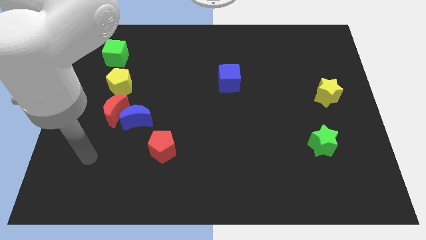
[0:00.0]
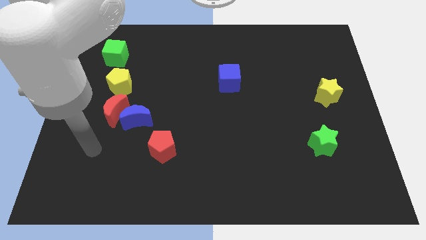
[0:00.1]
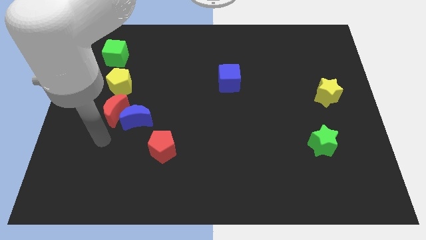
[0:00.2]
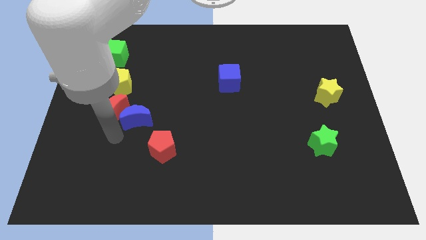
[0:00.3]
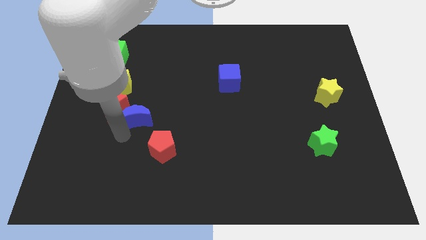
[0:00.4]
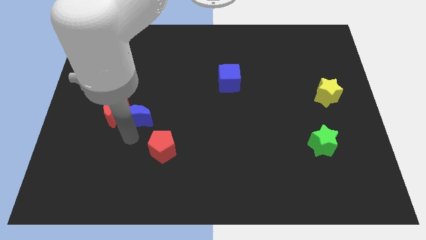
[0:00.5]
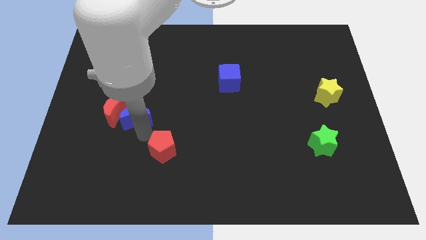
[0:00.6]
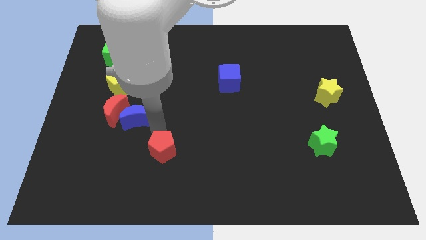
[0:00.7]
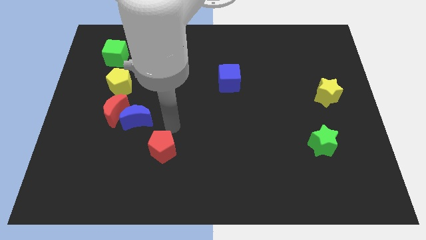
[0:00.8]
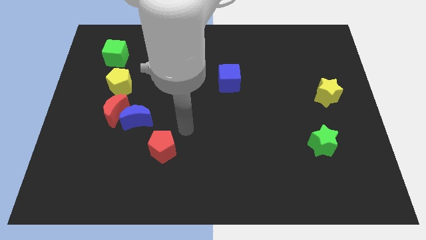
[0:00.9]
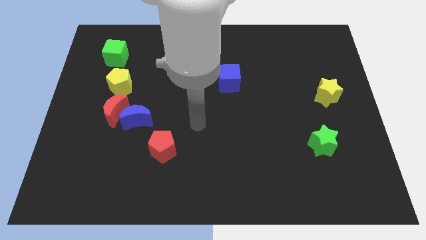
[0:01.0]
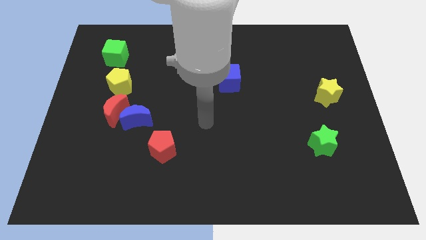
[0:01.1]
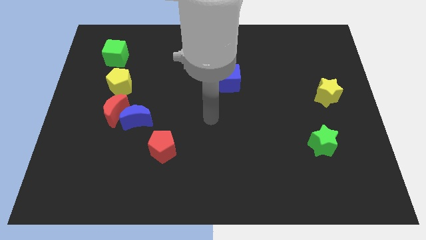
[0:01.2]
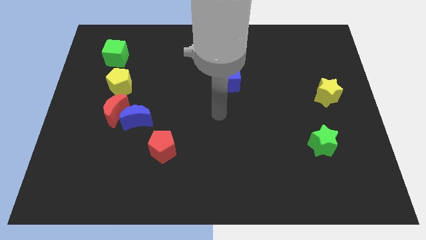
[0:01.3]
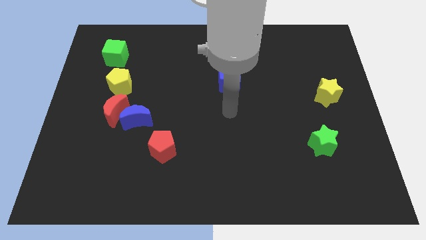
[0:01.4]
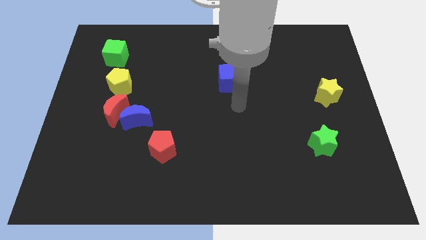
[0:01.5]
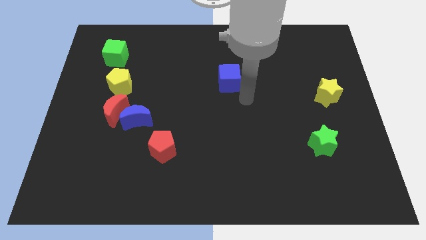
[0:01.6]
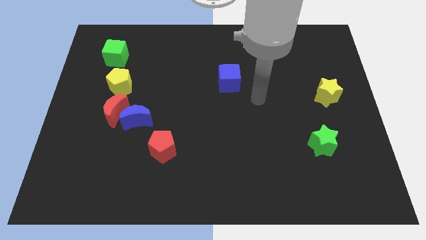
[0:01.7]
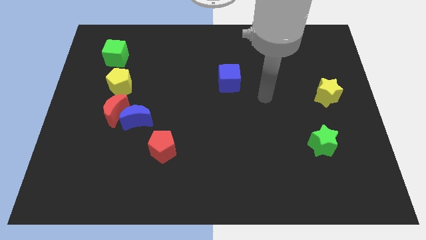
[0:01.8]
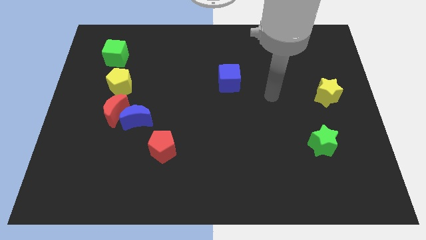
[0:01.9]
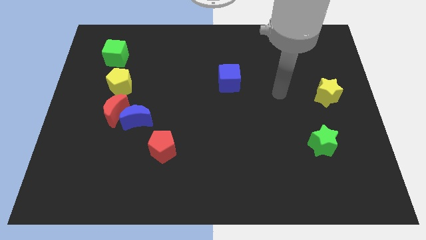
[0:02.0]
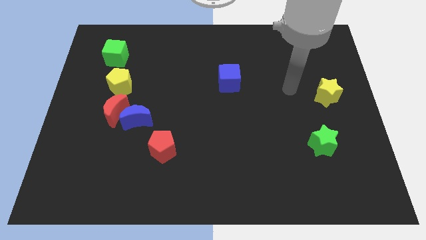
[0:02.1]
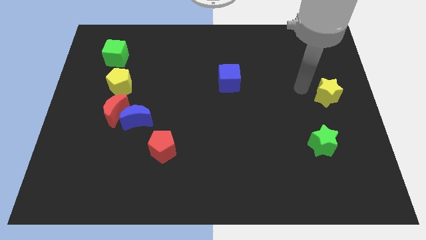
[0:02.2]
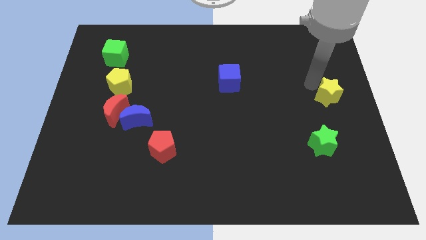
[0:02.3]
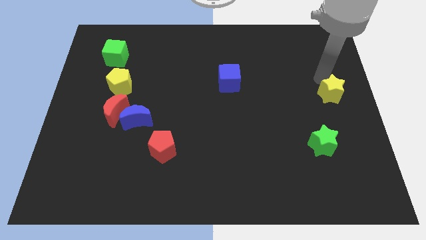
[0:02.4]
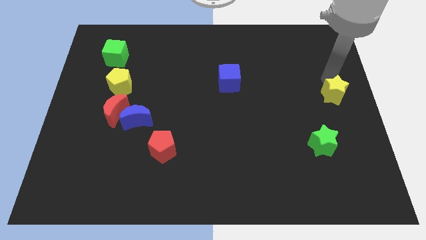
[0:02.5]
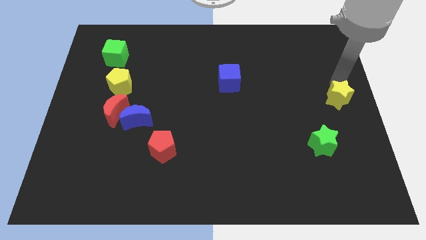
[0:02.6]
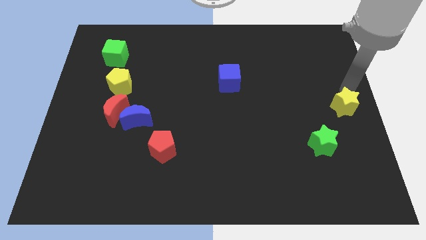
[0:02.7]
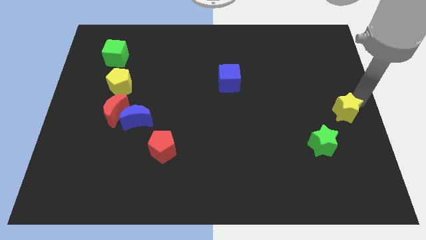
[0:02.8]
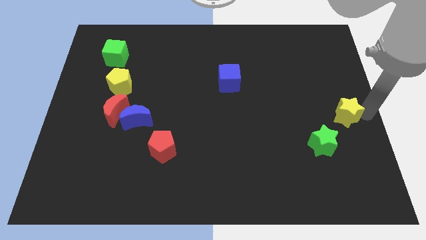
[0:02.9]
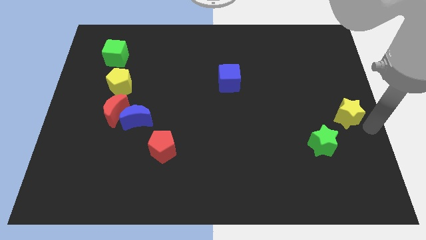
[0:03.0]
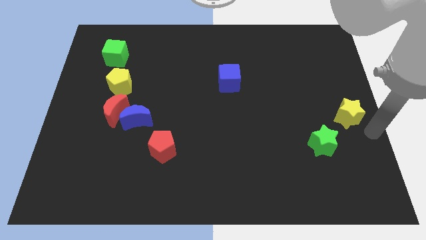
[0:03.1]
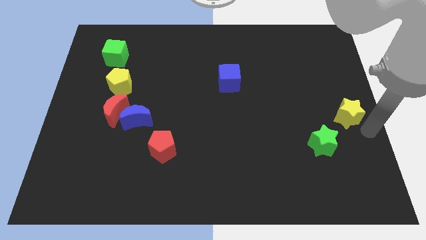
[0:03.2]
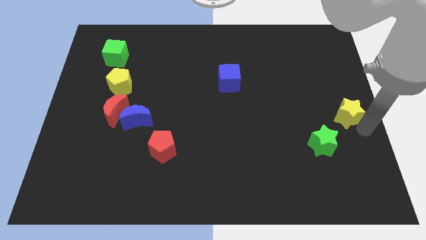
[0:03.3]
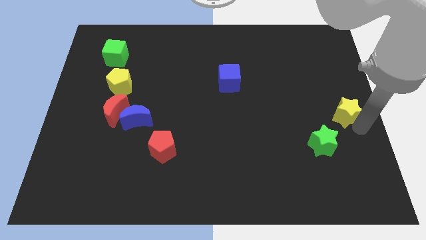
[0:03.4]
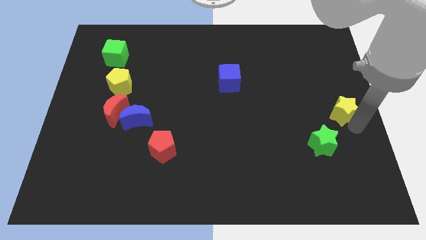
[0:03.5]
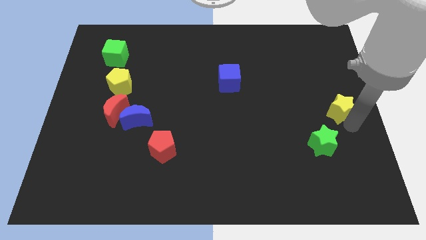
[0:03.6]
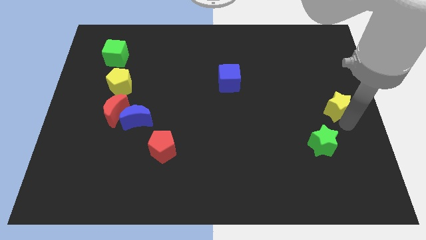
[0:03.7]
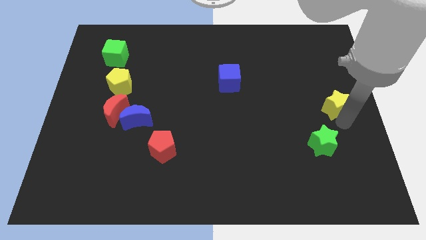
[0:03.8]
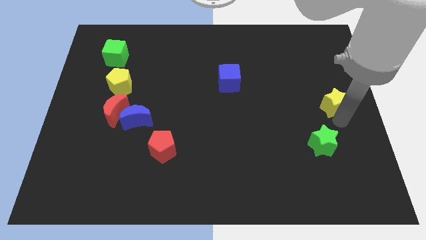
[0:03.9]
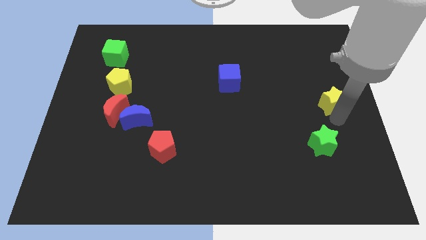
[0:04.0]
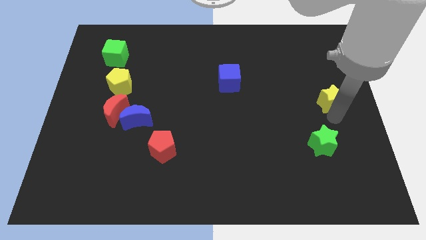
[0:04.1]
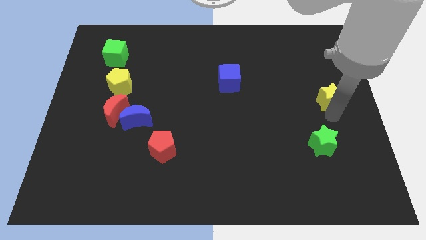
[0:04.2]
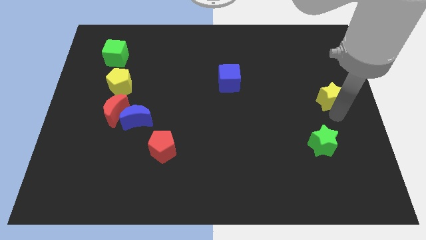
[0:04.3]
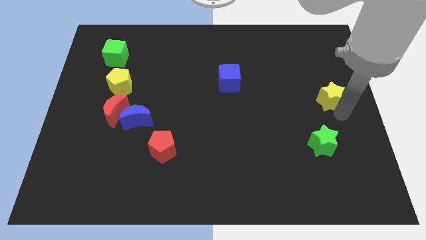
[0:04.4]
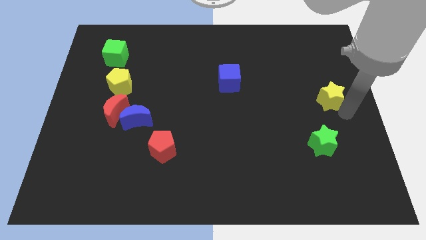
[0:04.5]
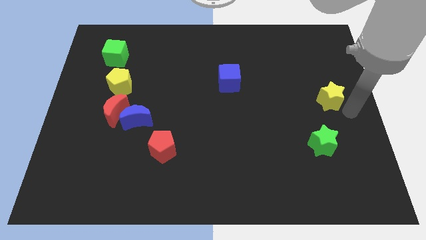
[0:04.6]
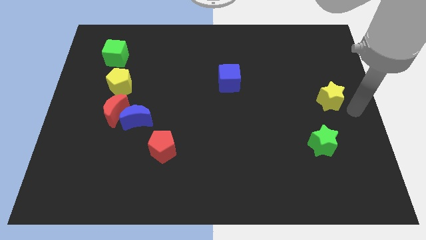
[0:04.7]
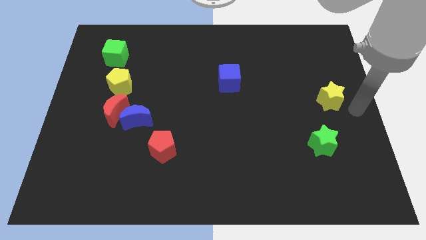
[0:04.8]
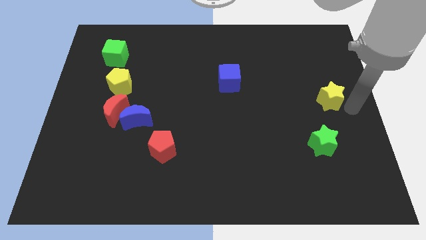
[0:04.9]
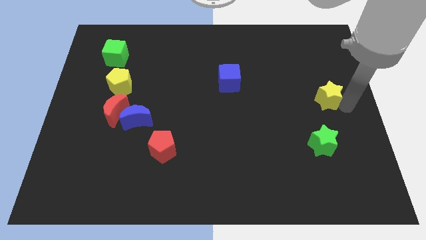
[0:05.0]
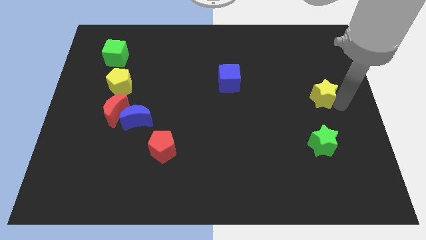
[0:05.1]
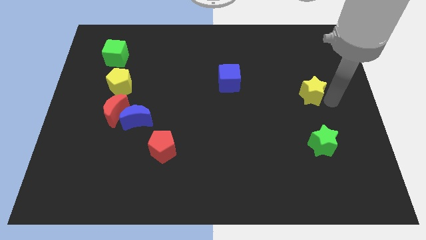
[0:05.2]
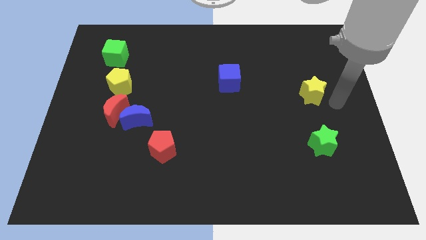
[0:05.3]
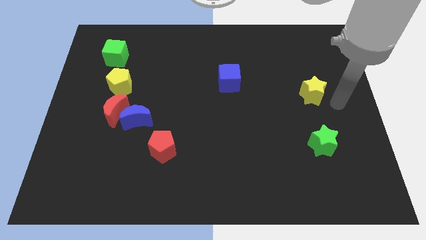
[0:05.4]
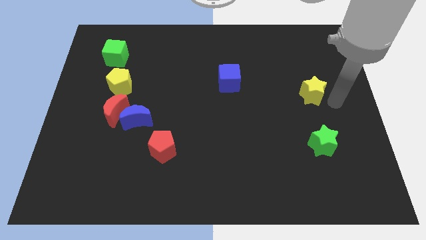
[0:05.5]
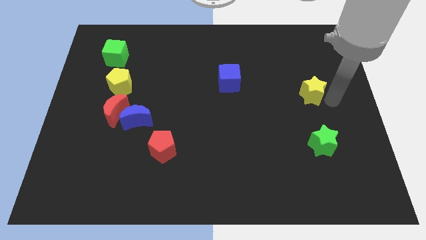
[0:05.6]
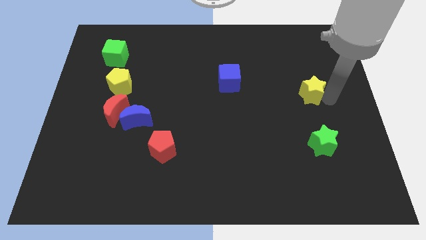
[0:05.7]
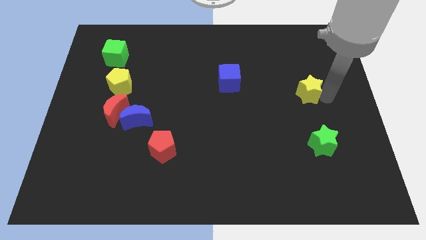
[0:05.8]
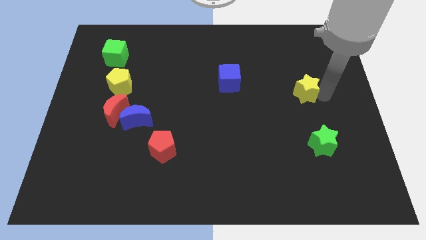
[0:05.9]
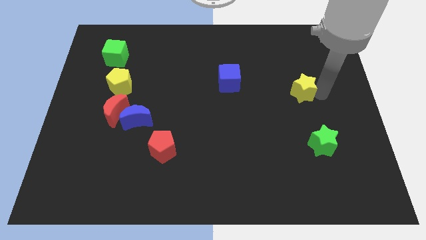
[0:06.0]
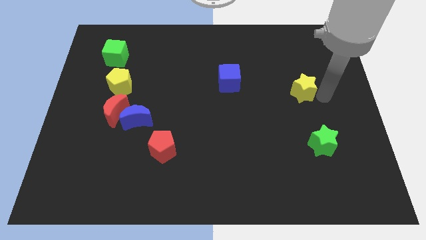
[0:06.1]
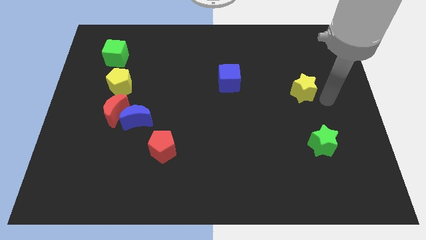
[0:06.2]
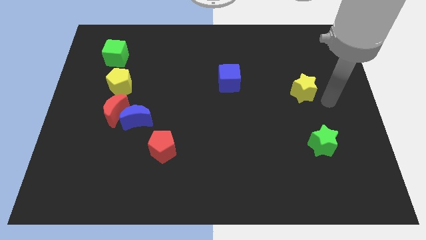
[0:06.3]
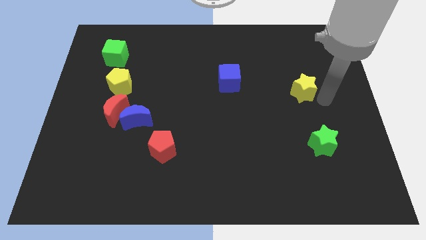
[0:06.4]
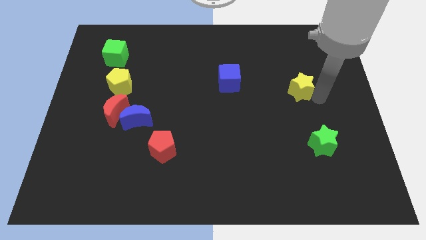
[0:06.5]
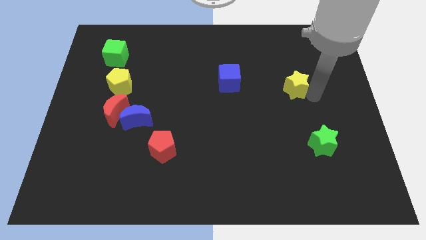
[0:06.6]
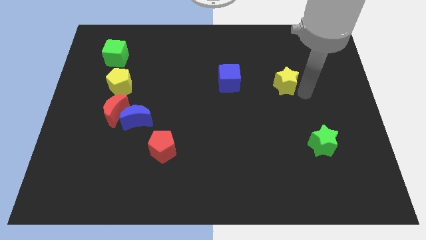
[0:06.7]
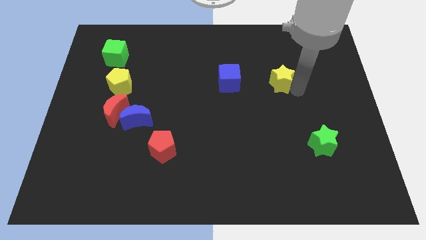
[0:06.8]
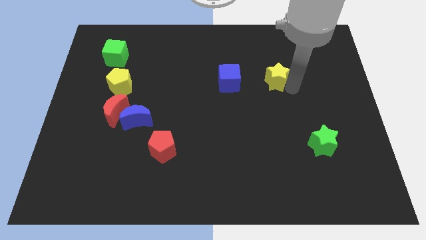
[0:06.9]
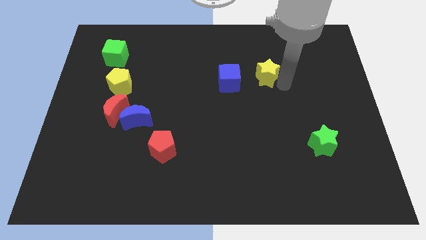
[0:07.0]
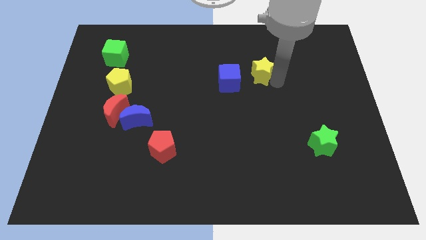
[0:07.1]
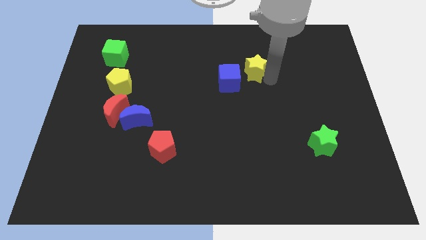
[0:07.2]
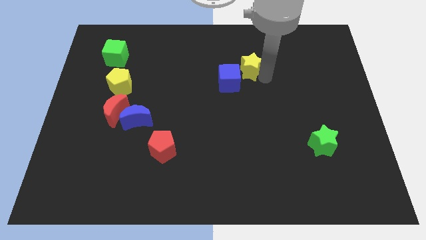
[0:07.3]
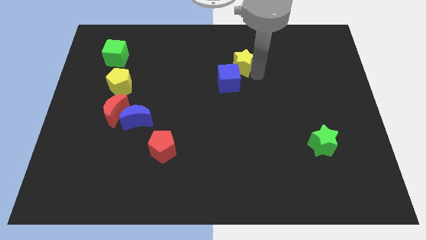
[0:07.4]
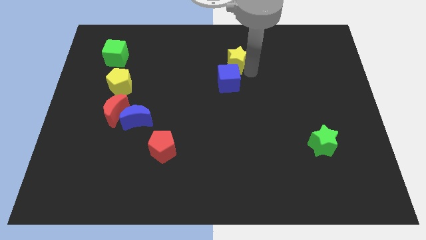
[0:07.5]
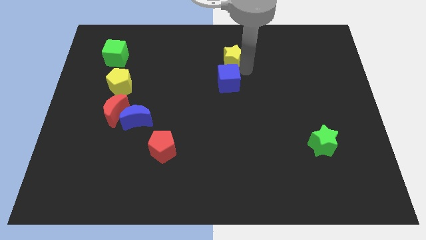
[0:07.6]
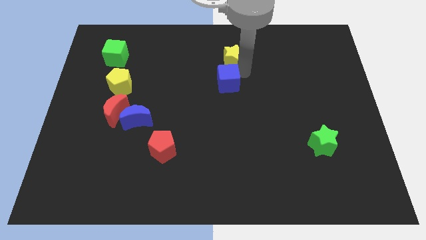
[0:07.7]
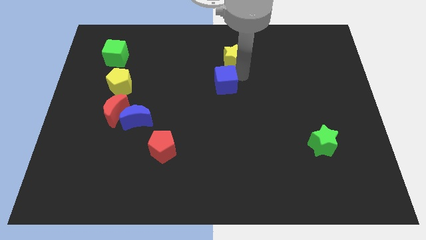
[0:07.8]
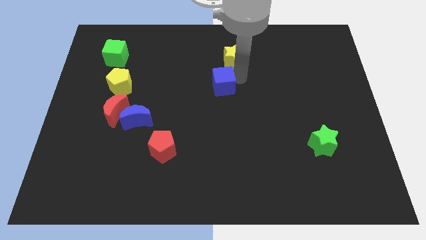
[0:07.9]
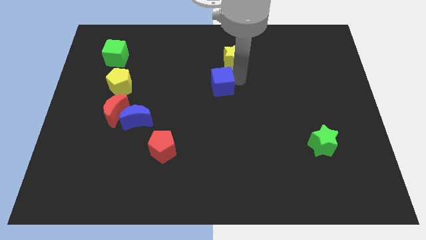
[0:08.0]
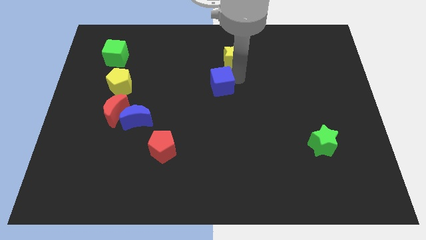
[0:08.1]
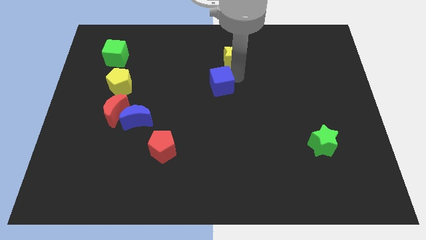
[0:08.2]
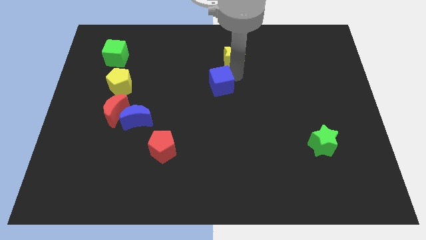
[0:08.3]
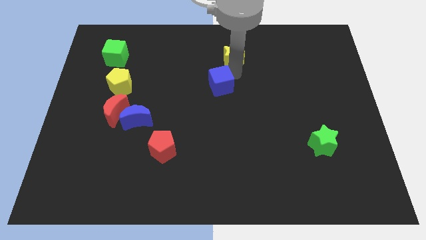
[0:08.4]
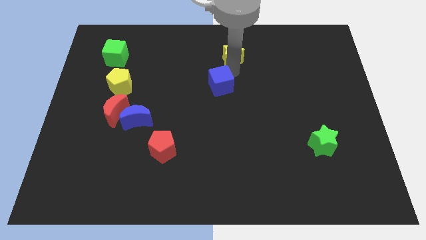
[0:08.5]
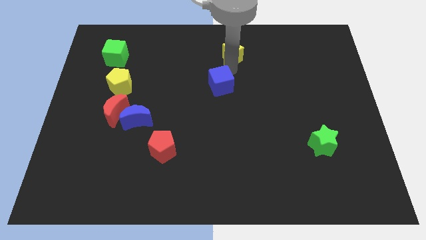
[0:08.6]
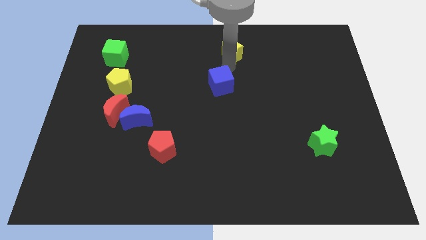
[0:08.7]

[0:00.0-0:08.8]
push the yellow star to the top side
